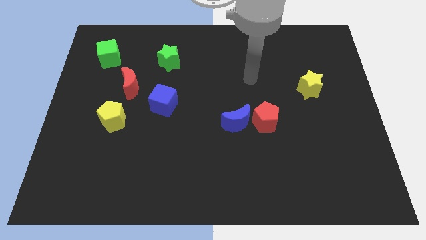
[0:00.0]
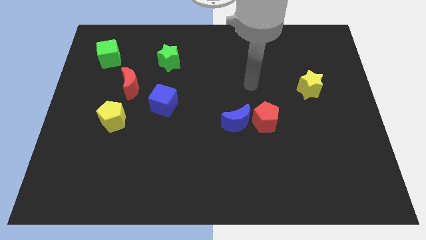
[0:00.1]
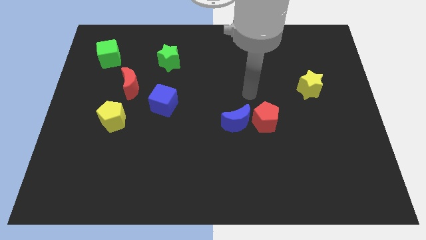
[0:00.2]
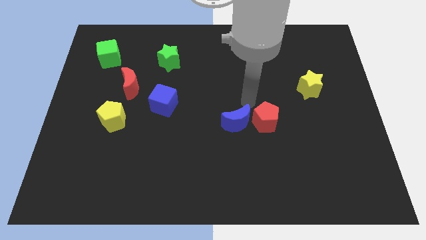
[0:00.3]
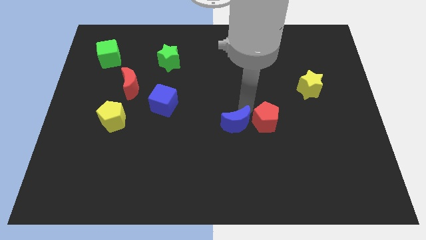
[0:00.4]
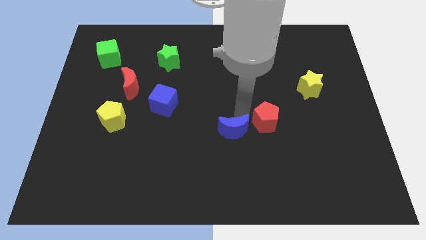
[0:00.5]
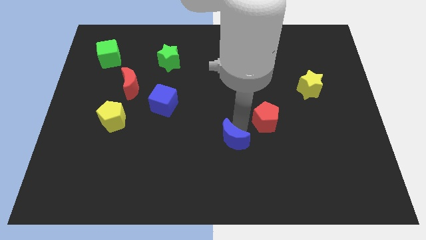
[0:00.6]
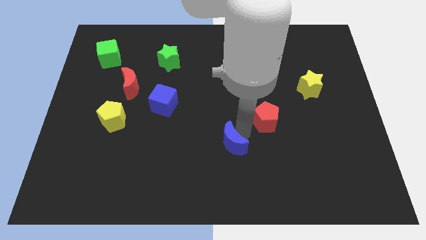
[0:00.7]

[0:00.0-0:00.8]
pull the red pentagon apart from the blue moon

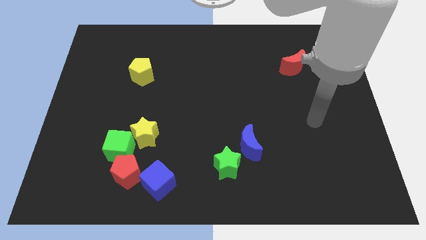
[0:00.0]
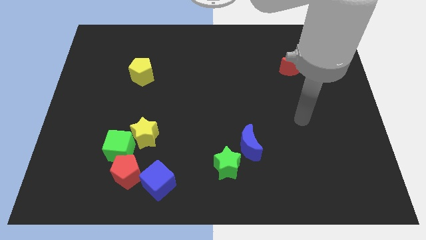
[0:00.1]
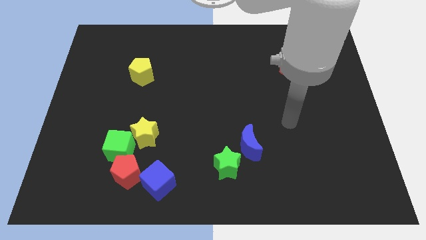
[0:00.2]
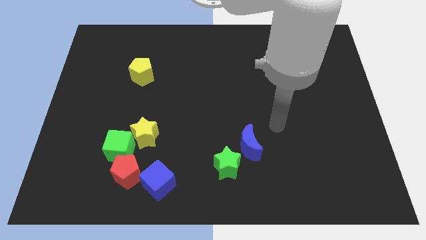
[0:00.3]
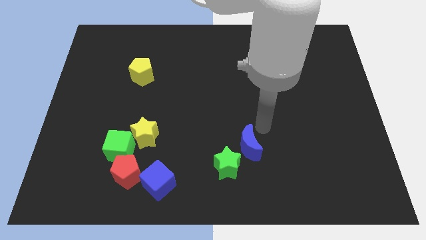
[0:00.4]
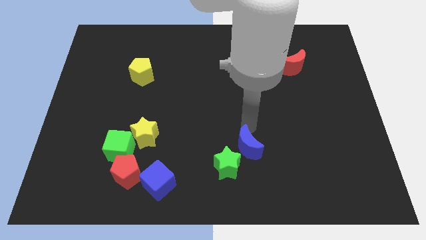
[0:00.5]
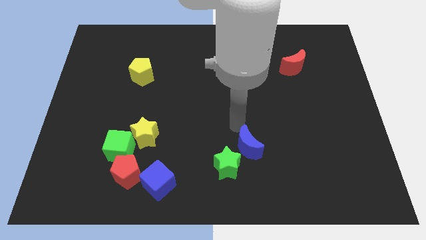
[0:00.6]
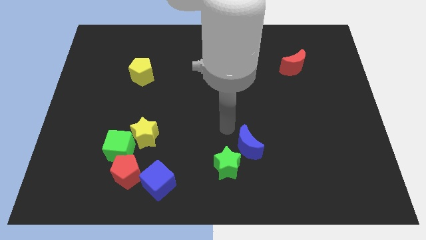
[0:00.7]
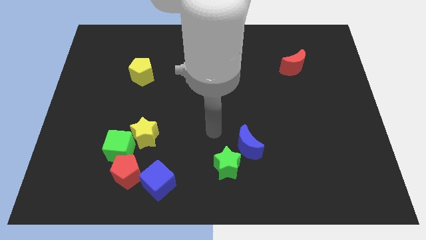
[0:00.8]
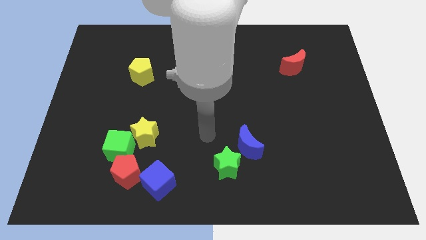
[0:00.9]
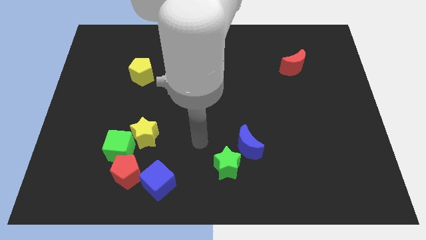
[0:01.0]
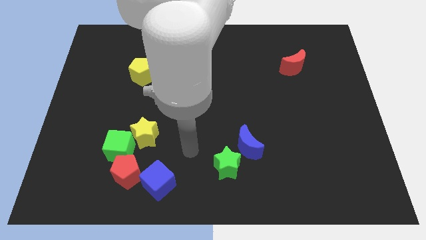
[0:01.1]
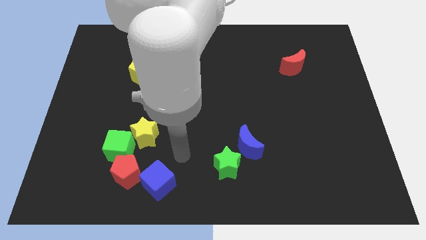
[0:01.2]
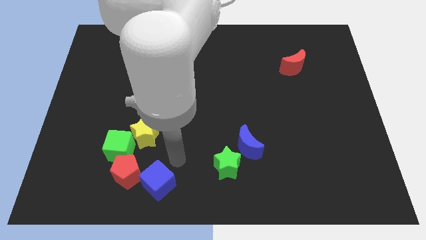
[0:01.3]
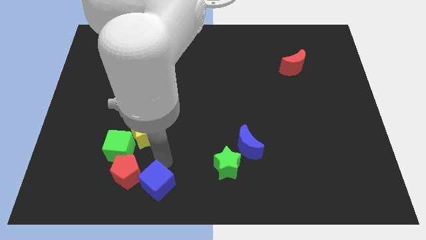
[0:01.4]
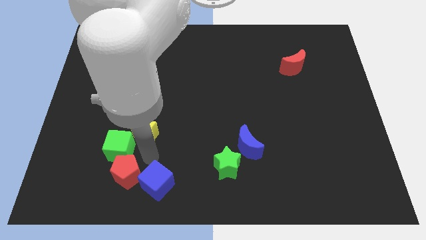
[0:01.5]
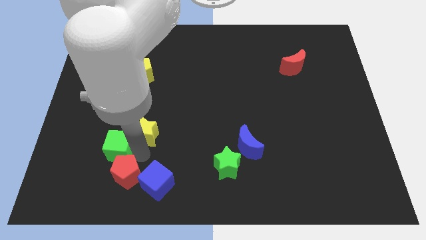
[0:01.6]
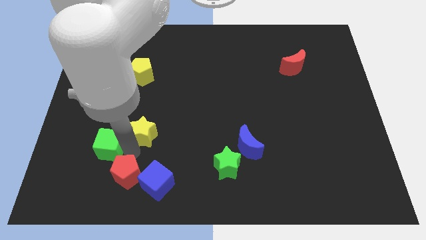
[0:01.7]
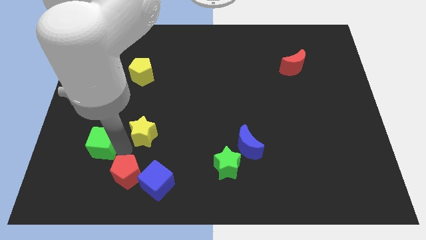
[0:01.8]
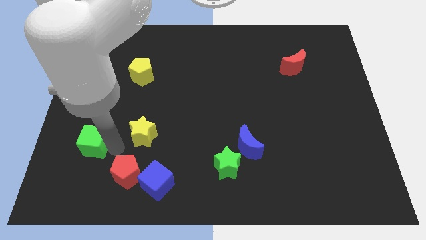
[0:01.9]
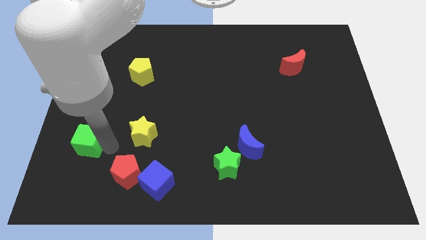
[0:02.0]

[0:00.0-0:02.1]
pull the green cube apart from the yellow star and red pentagon

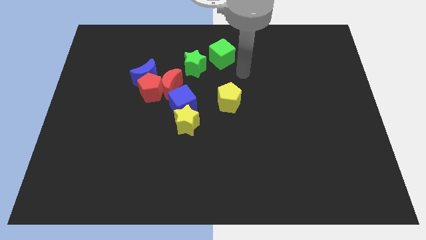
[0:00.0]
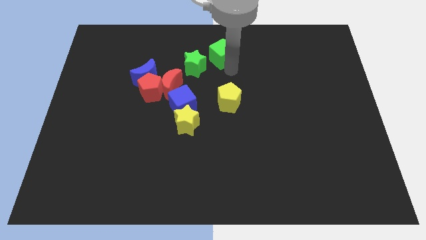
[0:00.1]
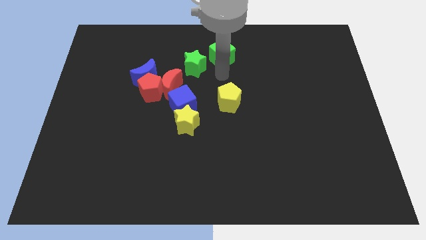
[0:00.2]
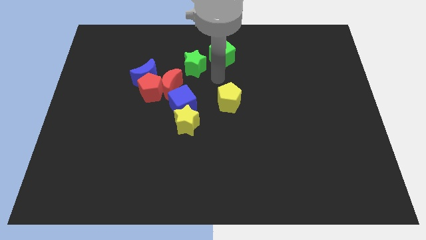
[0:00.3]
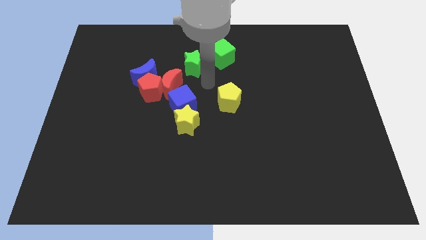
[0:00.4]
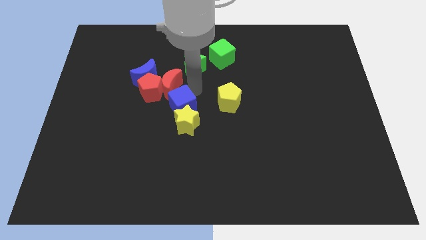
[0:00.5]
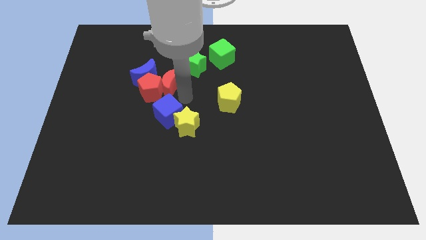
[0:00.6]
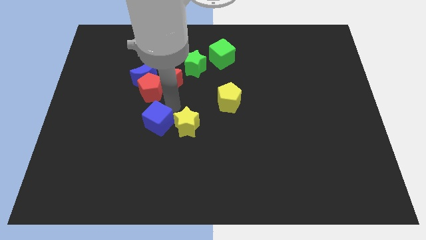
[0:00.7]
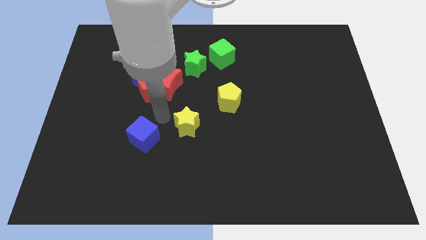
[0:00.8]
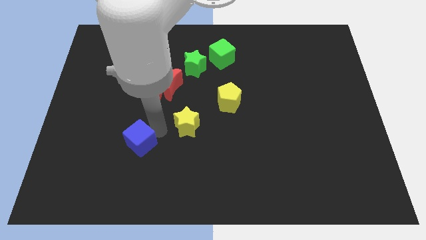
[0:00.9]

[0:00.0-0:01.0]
separate the yellow star from the blue cube

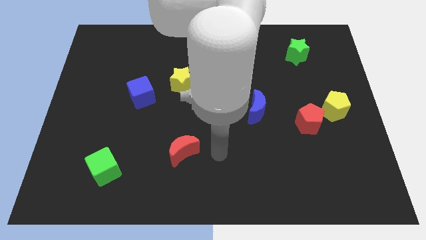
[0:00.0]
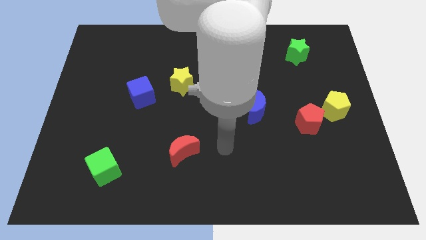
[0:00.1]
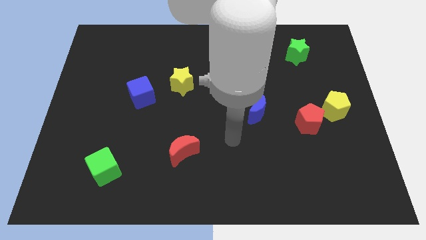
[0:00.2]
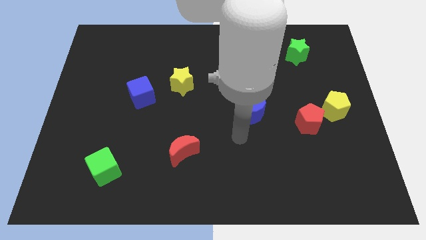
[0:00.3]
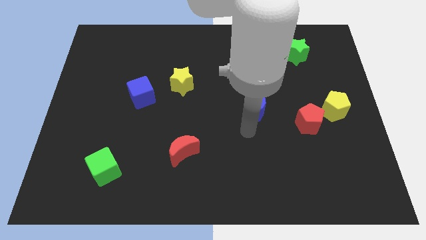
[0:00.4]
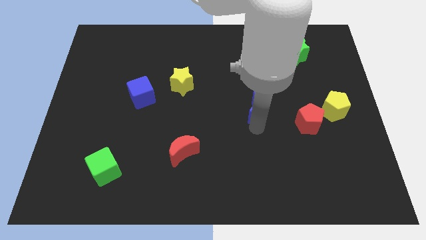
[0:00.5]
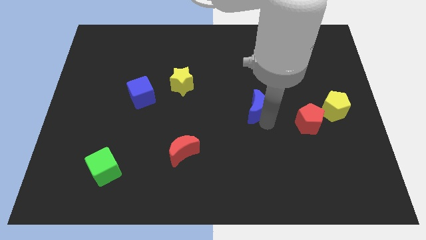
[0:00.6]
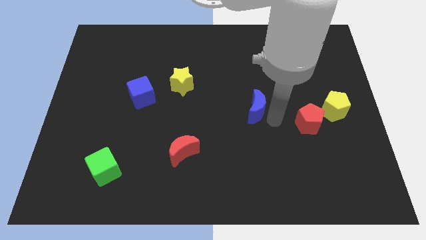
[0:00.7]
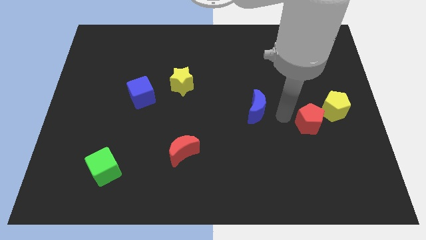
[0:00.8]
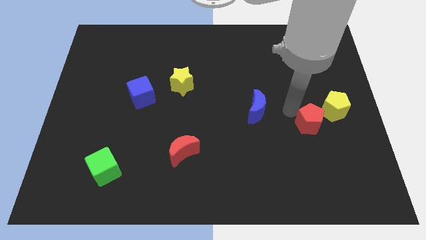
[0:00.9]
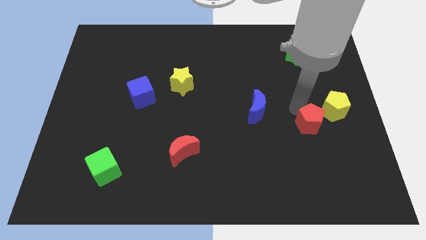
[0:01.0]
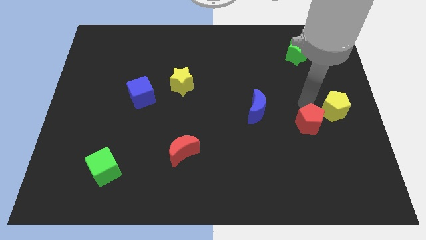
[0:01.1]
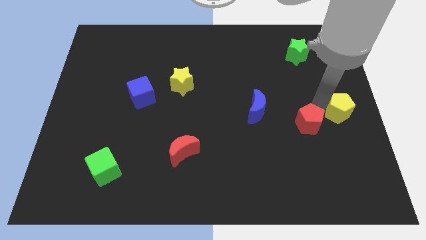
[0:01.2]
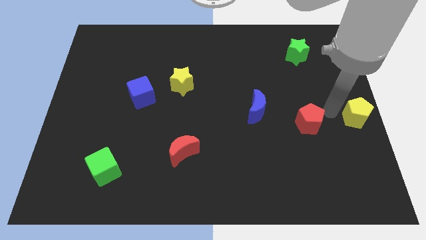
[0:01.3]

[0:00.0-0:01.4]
pull the red pentagon apart from the yellow pentagon

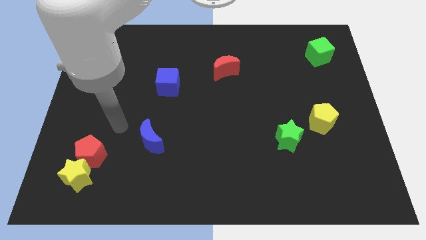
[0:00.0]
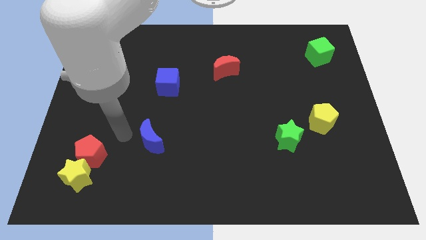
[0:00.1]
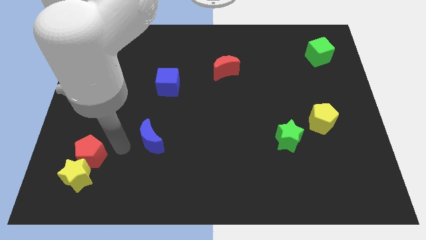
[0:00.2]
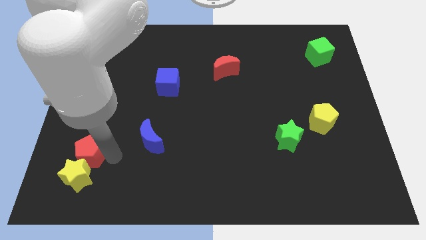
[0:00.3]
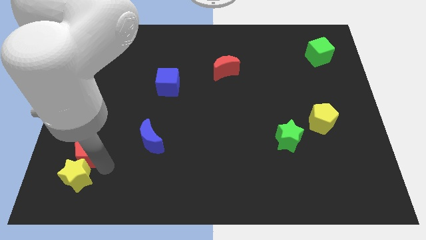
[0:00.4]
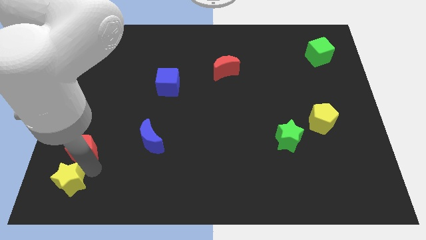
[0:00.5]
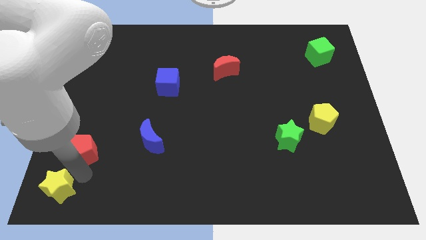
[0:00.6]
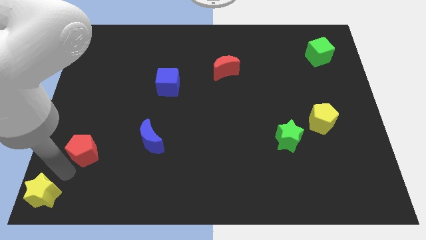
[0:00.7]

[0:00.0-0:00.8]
pull the red pentagon apart from the yellow star

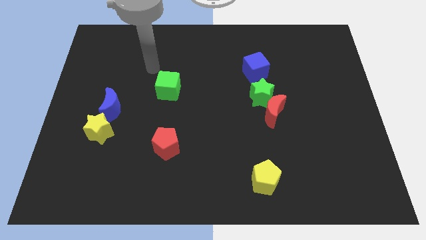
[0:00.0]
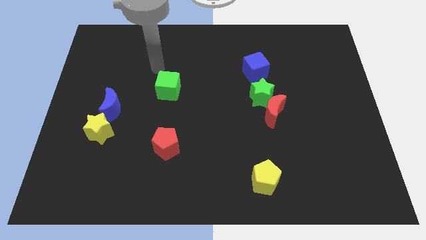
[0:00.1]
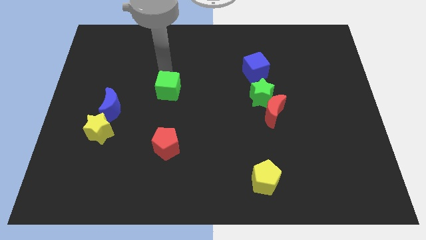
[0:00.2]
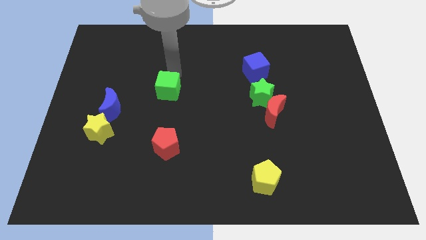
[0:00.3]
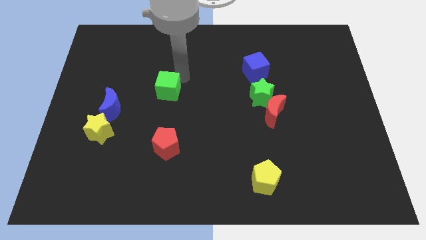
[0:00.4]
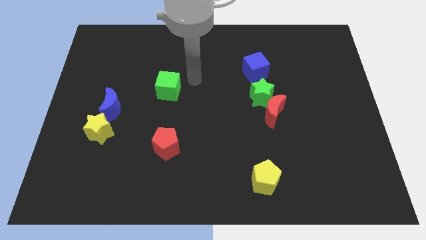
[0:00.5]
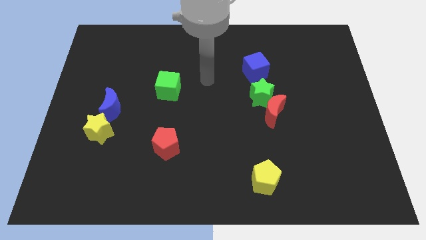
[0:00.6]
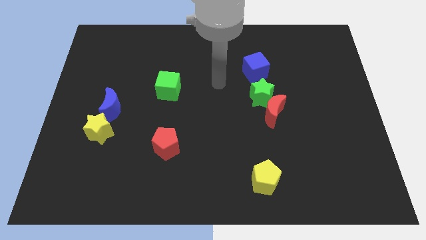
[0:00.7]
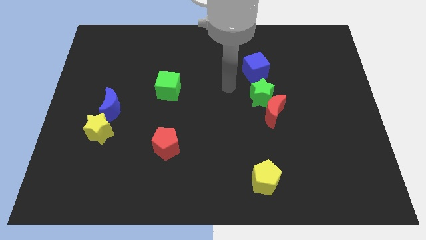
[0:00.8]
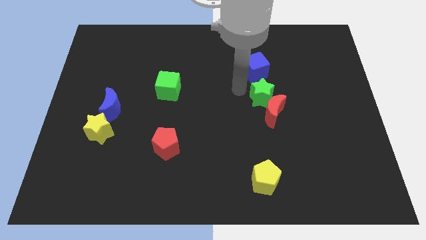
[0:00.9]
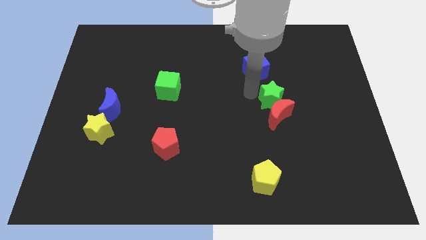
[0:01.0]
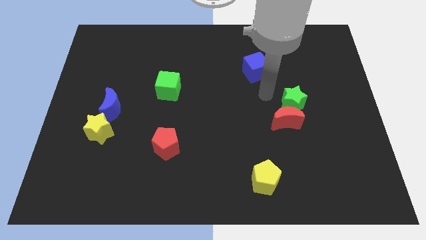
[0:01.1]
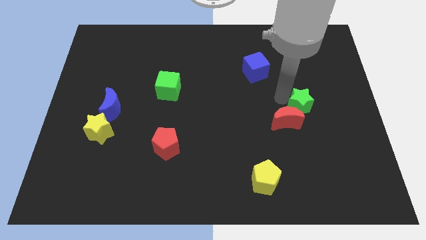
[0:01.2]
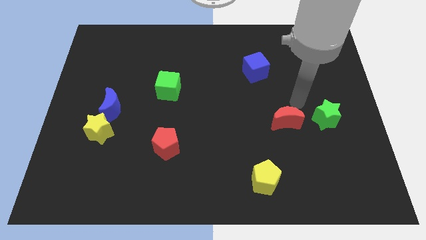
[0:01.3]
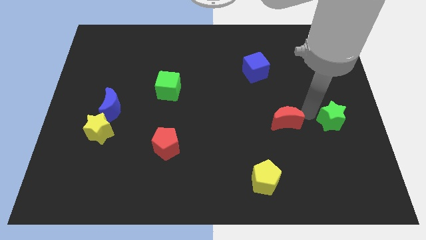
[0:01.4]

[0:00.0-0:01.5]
move the red moon away from the green star

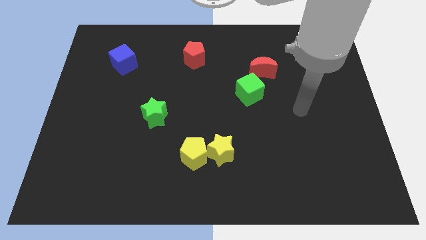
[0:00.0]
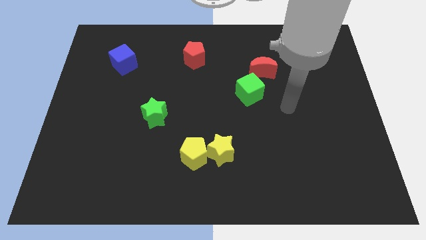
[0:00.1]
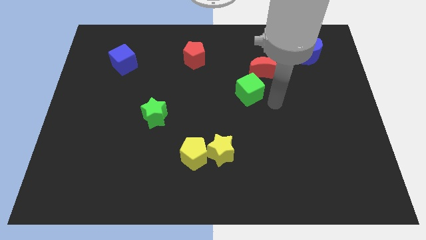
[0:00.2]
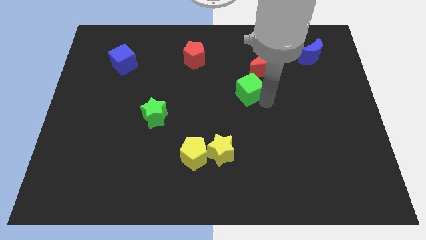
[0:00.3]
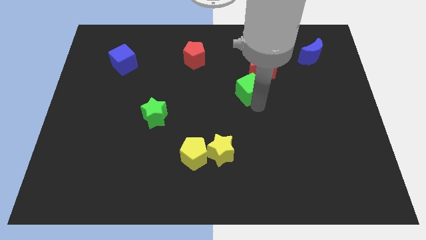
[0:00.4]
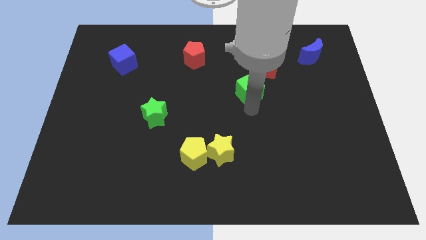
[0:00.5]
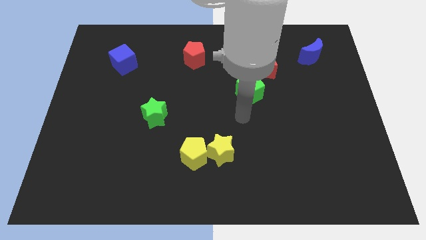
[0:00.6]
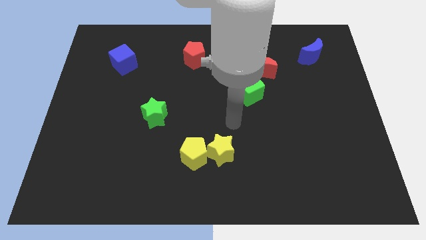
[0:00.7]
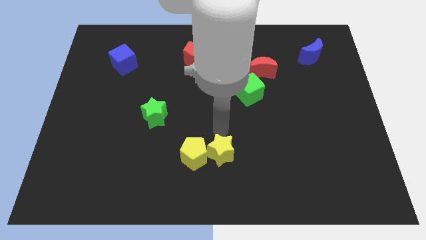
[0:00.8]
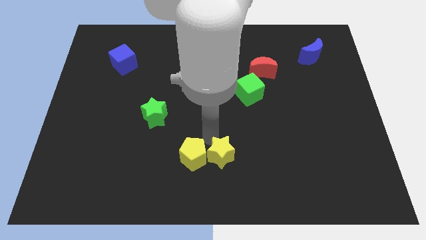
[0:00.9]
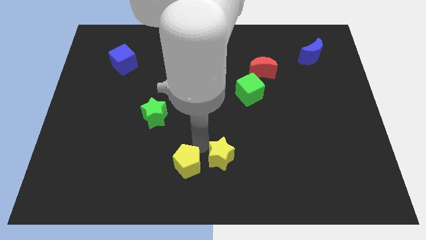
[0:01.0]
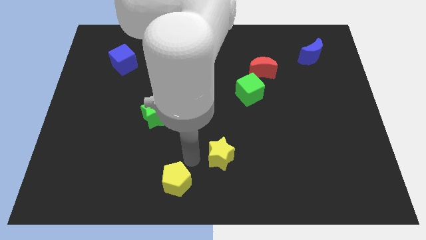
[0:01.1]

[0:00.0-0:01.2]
pull the yellow star apart from the yellow pentagon

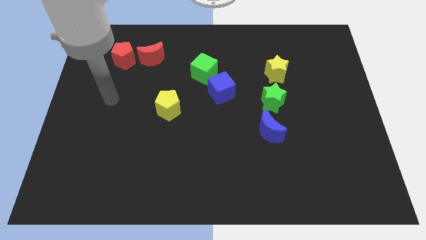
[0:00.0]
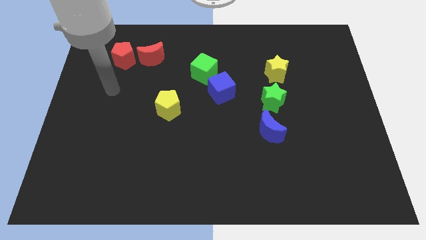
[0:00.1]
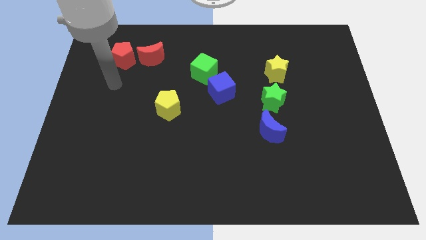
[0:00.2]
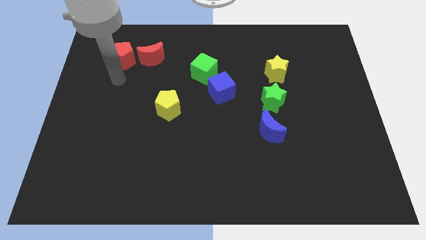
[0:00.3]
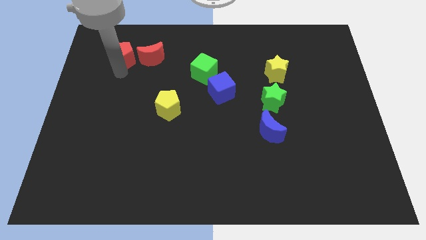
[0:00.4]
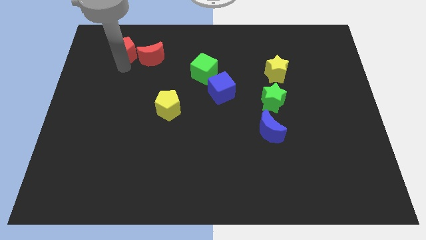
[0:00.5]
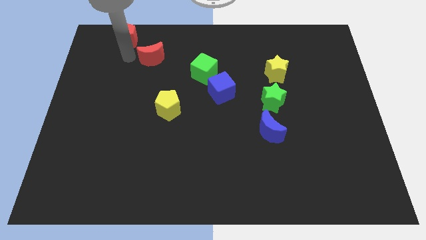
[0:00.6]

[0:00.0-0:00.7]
pull the red moon apart from the red pentagon
